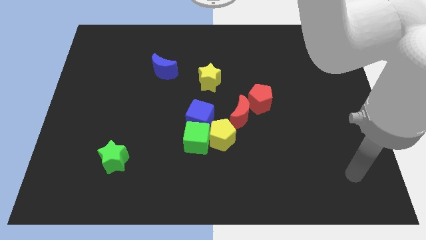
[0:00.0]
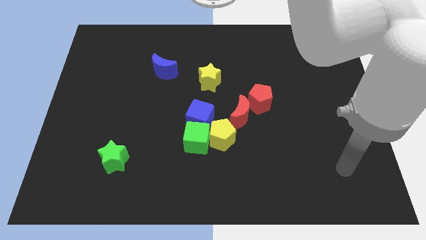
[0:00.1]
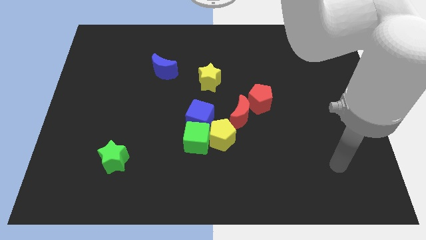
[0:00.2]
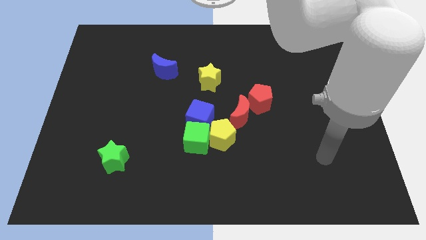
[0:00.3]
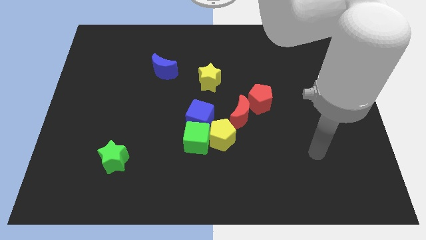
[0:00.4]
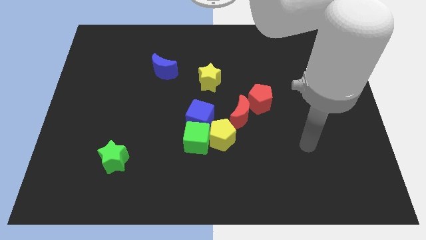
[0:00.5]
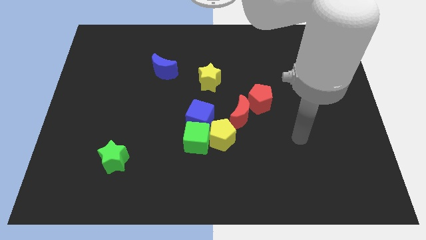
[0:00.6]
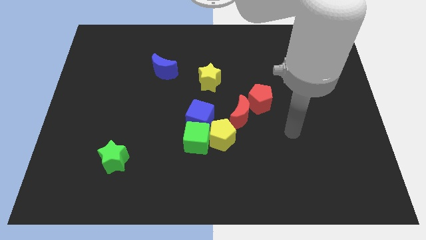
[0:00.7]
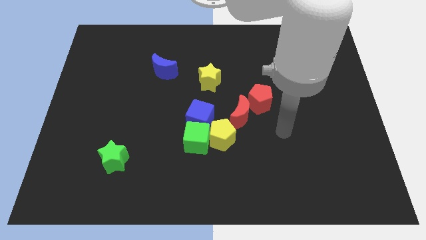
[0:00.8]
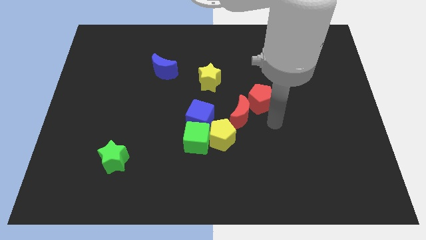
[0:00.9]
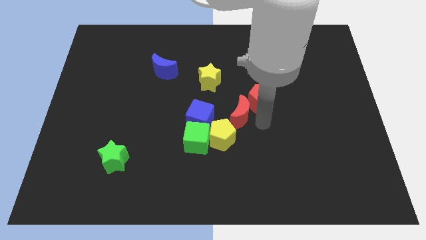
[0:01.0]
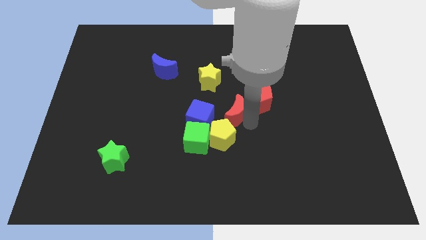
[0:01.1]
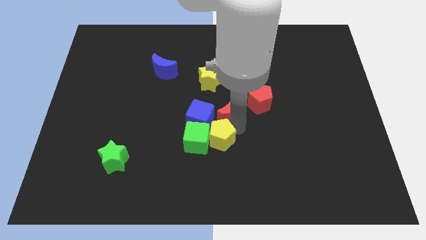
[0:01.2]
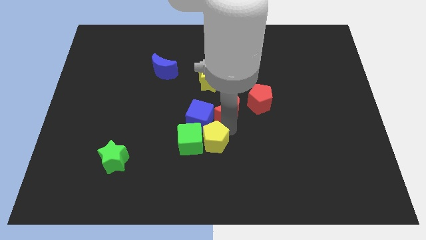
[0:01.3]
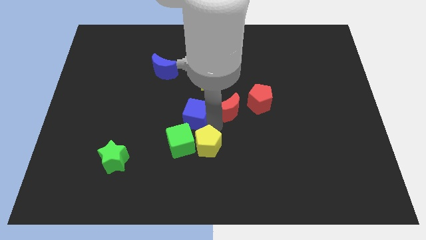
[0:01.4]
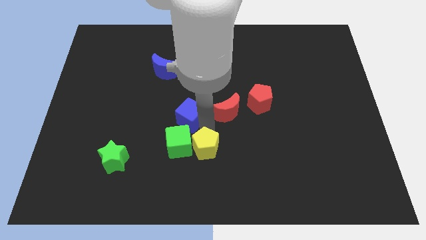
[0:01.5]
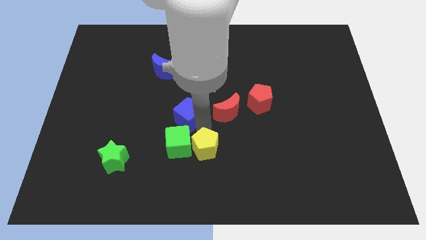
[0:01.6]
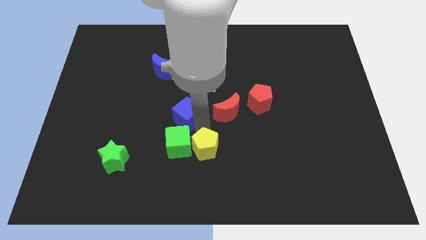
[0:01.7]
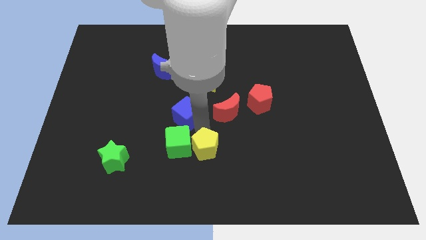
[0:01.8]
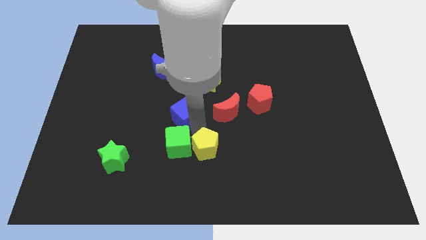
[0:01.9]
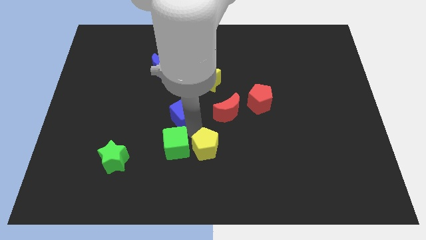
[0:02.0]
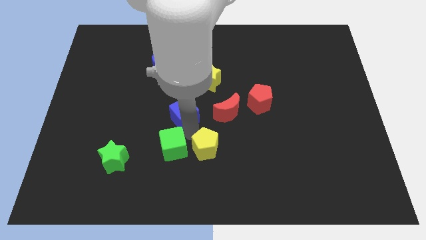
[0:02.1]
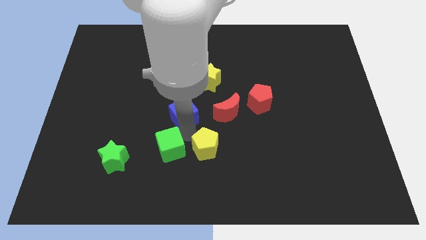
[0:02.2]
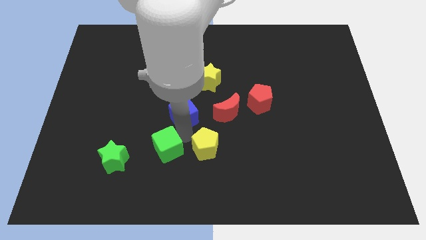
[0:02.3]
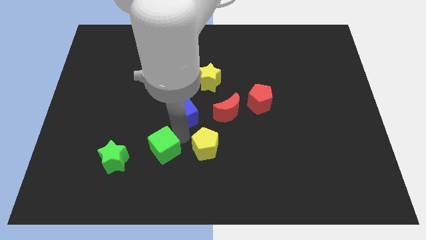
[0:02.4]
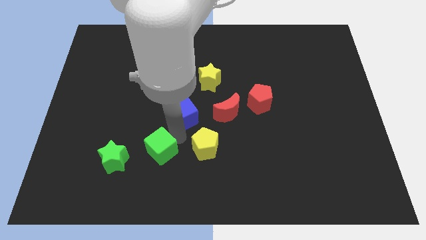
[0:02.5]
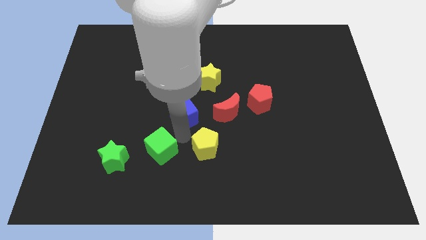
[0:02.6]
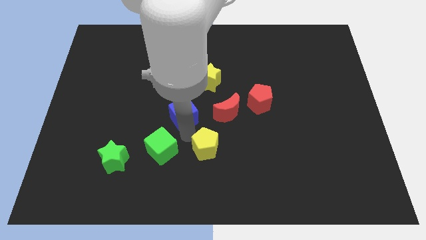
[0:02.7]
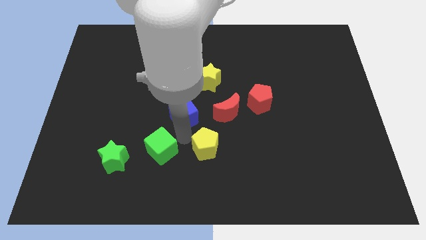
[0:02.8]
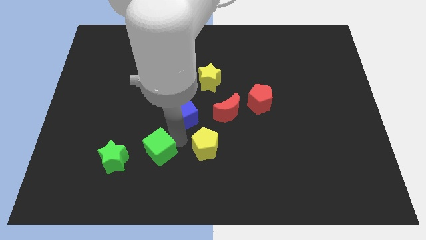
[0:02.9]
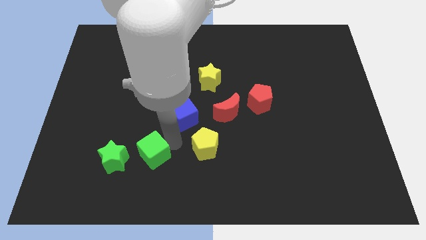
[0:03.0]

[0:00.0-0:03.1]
move the green cube away from the yellow pentagon and blue cube

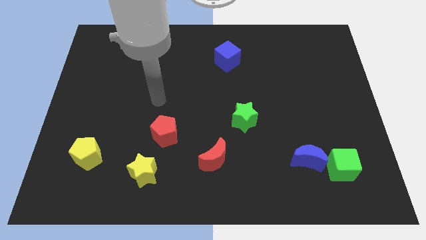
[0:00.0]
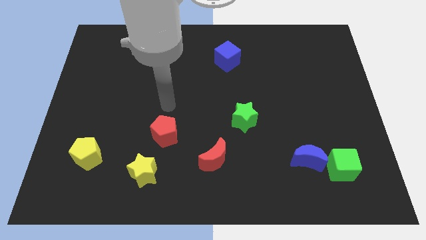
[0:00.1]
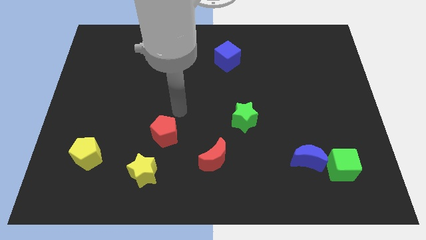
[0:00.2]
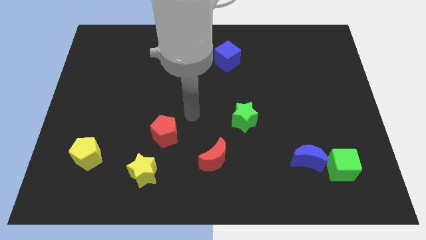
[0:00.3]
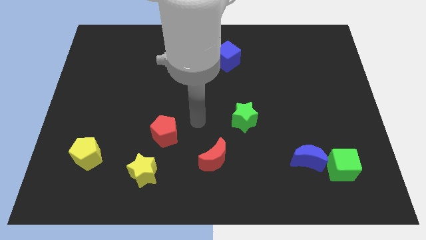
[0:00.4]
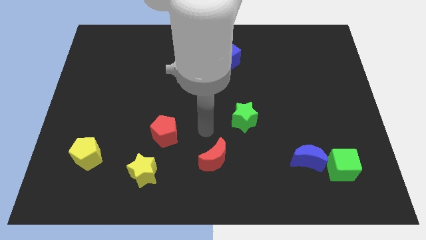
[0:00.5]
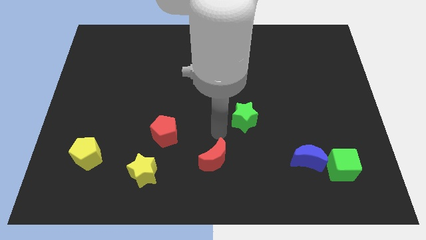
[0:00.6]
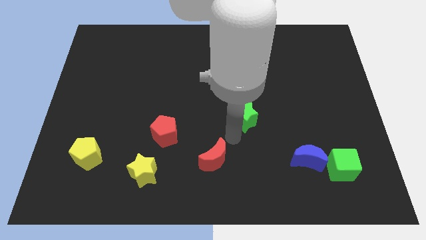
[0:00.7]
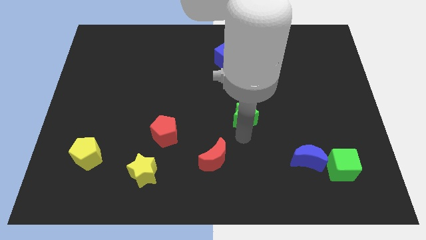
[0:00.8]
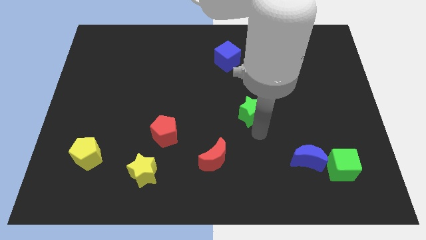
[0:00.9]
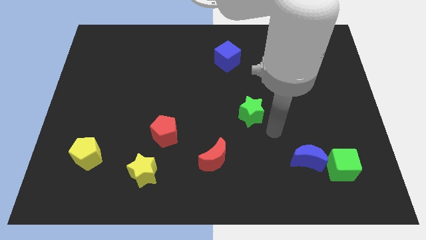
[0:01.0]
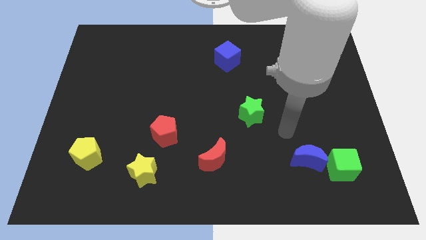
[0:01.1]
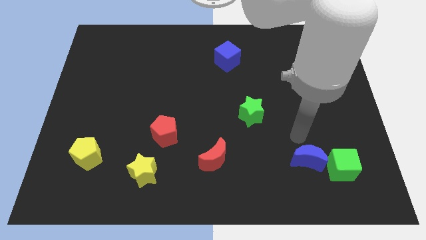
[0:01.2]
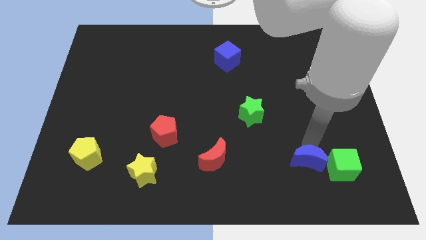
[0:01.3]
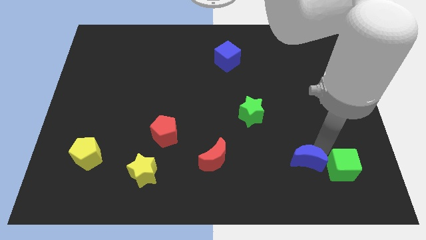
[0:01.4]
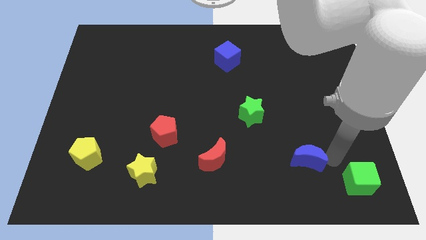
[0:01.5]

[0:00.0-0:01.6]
move the blue moon away from the green cube

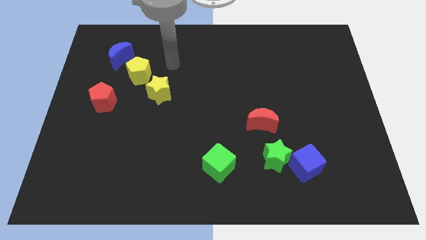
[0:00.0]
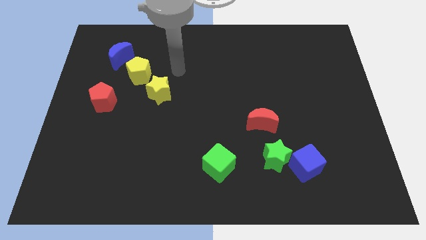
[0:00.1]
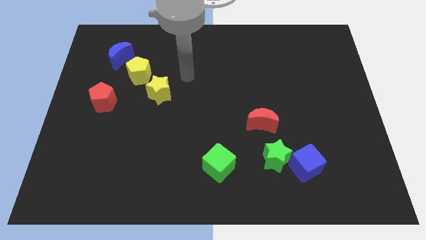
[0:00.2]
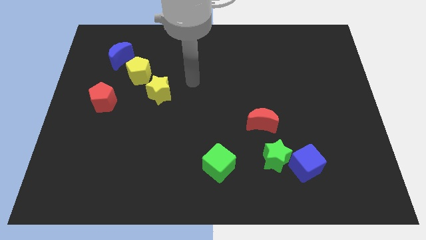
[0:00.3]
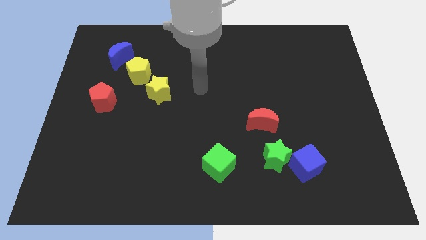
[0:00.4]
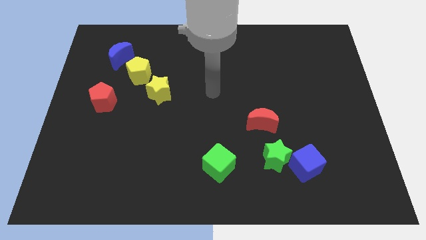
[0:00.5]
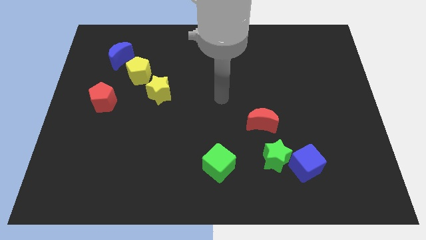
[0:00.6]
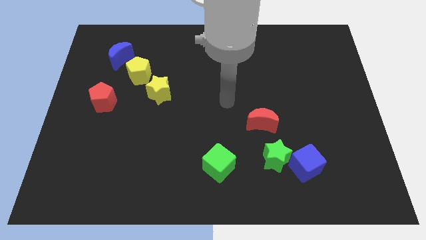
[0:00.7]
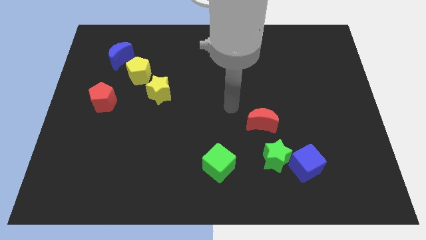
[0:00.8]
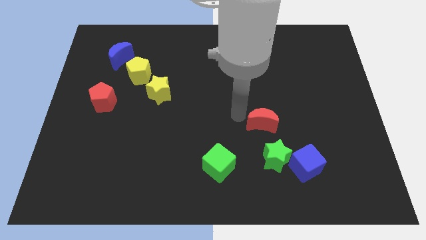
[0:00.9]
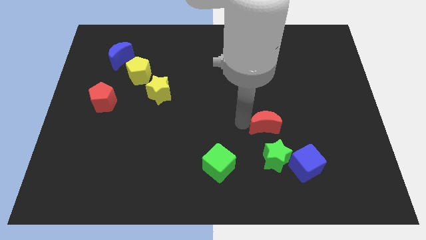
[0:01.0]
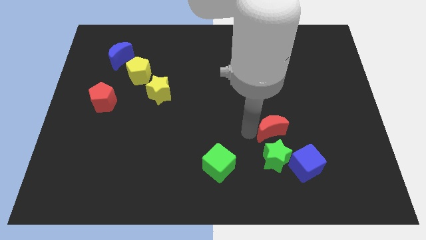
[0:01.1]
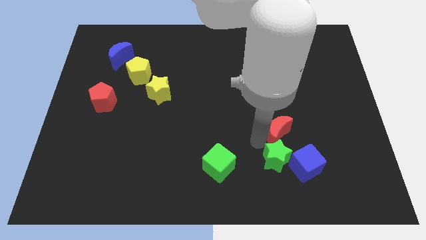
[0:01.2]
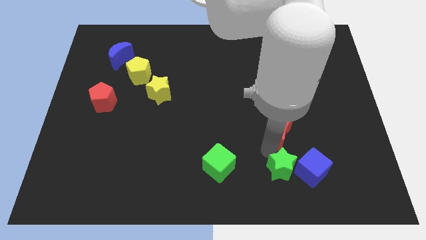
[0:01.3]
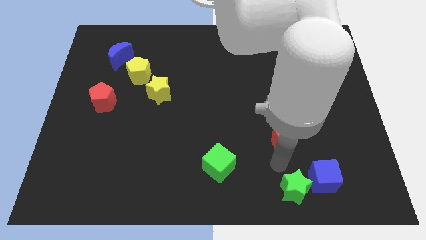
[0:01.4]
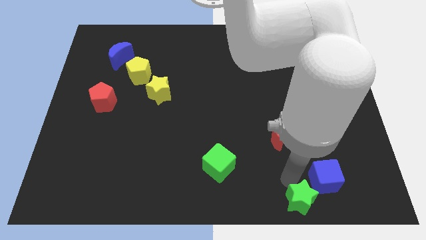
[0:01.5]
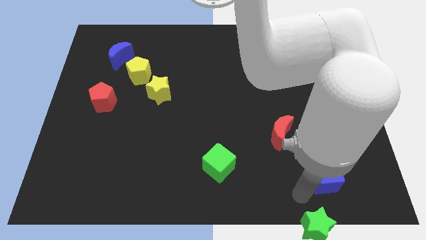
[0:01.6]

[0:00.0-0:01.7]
pull the blue cube apart from the green star

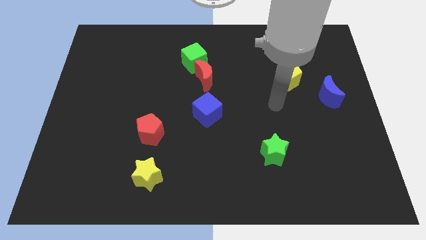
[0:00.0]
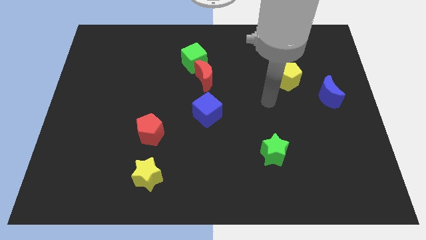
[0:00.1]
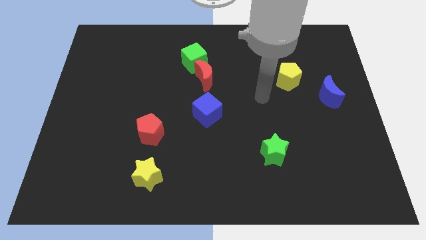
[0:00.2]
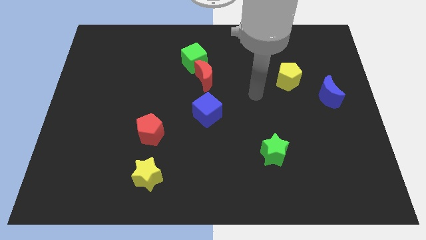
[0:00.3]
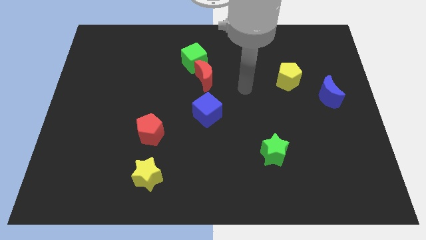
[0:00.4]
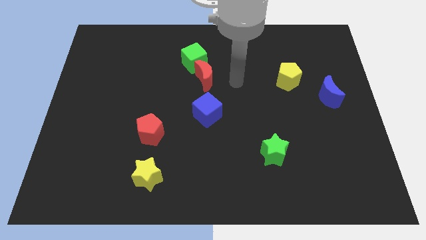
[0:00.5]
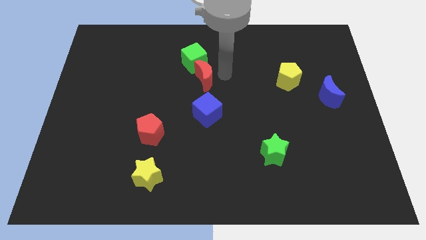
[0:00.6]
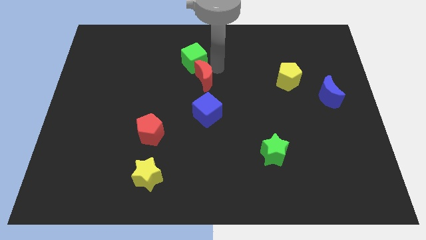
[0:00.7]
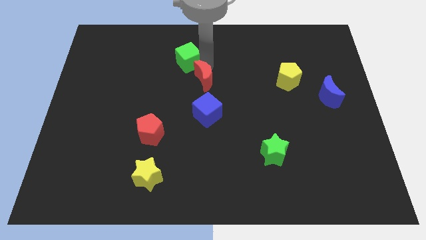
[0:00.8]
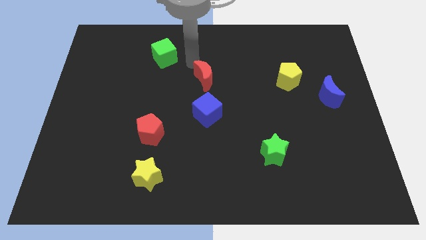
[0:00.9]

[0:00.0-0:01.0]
separate the red moon from the green cube

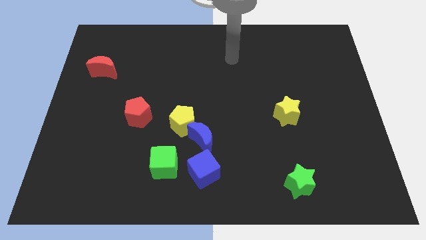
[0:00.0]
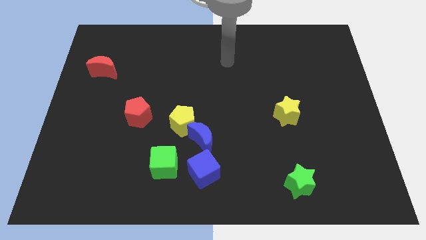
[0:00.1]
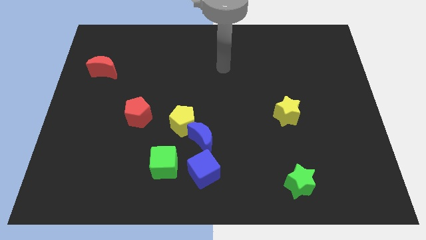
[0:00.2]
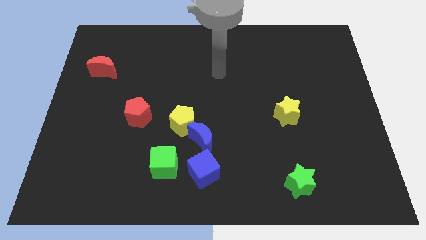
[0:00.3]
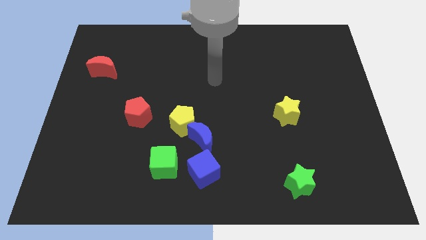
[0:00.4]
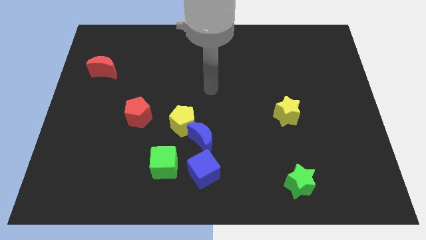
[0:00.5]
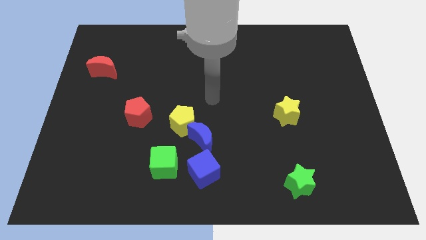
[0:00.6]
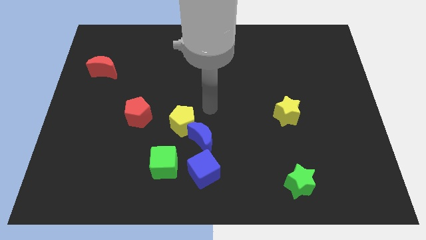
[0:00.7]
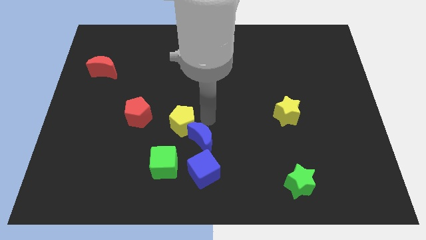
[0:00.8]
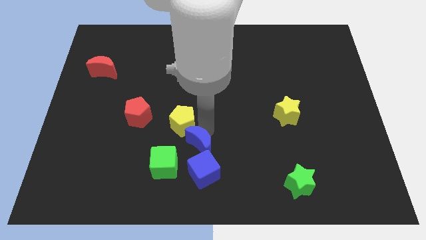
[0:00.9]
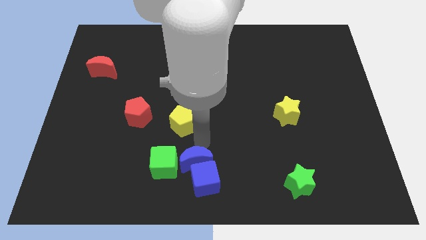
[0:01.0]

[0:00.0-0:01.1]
move the yellow pentagon away from the blue moon

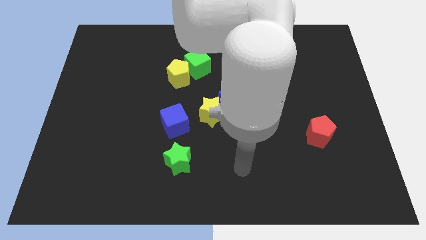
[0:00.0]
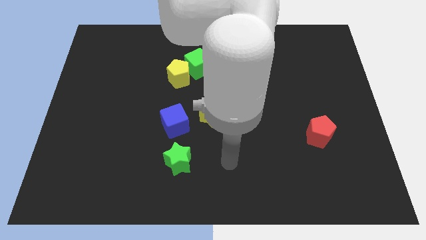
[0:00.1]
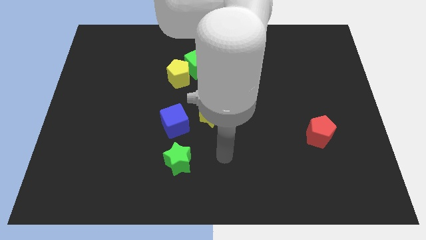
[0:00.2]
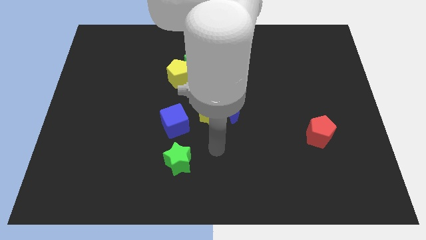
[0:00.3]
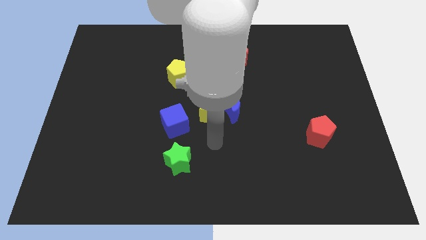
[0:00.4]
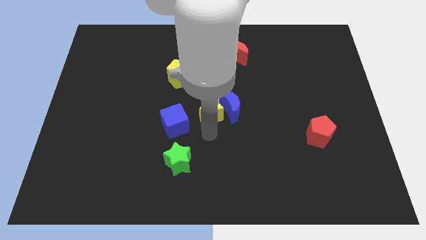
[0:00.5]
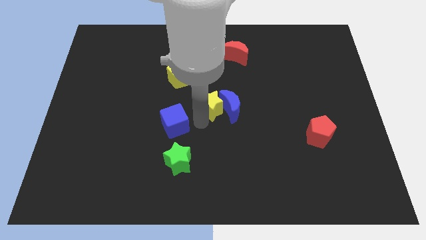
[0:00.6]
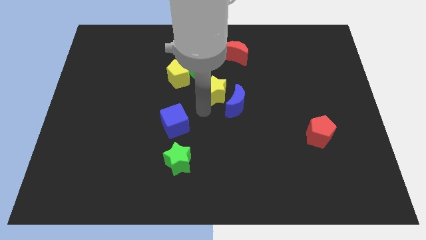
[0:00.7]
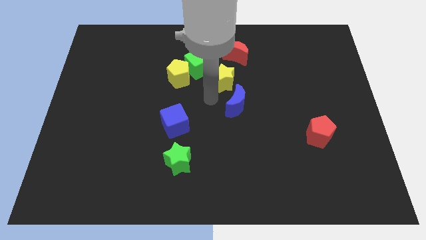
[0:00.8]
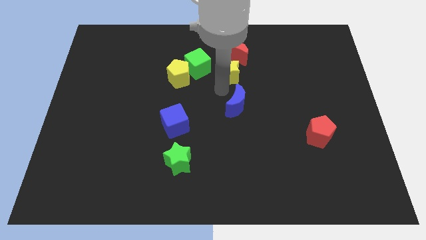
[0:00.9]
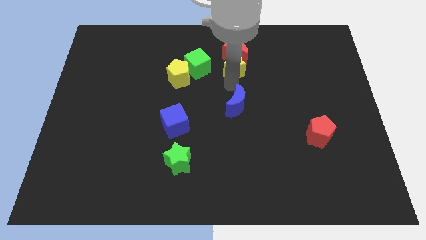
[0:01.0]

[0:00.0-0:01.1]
pull the blue moon apart from the yellow star
